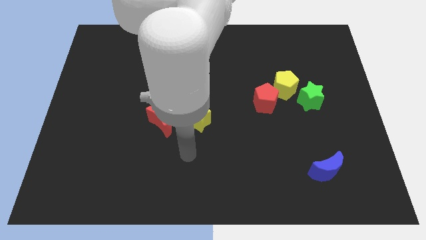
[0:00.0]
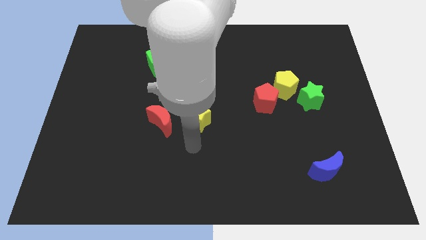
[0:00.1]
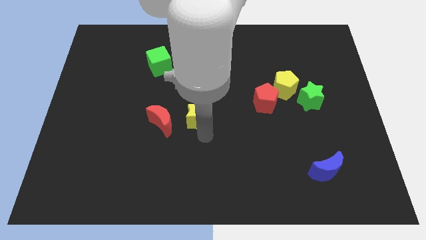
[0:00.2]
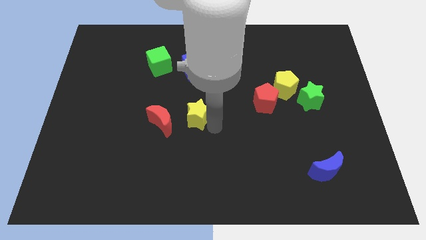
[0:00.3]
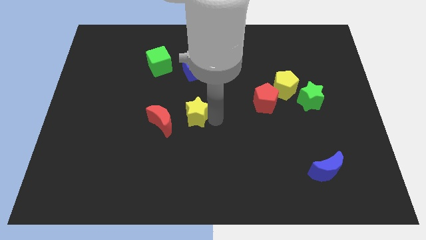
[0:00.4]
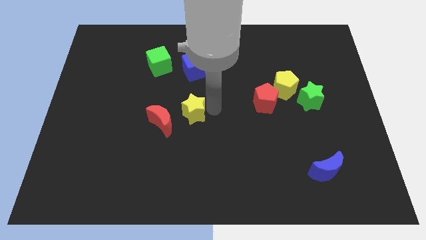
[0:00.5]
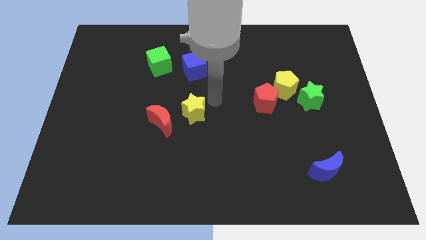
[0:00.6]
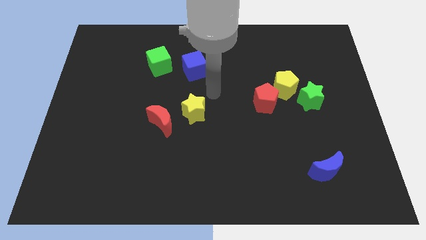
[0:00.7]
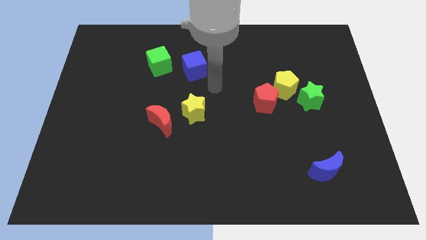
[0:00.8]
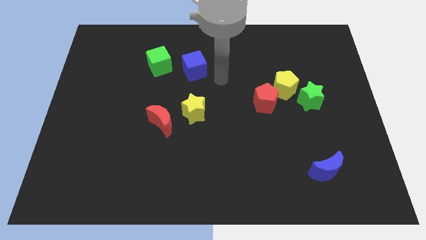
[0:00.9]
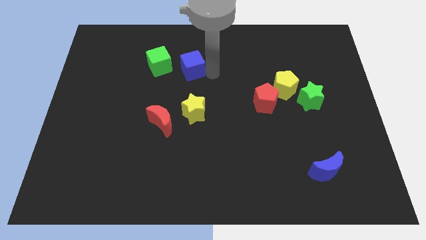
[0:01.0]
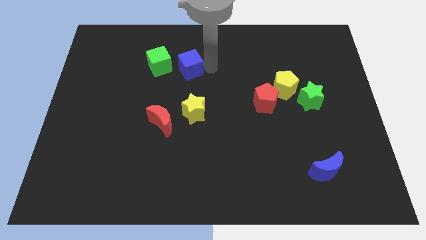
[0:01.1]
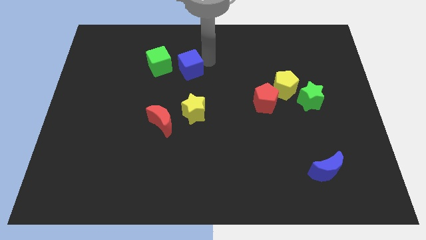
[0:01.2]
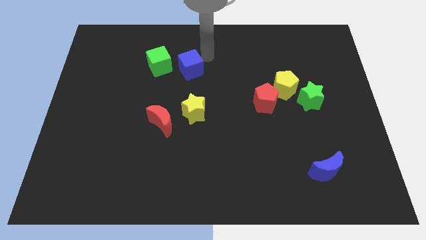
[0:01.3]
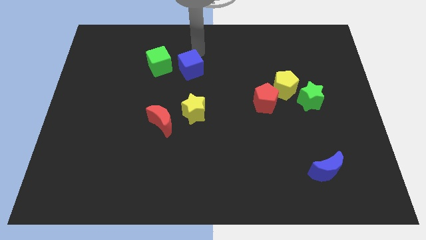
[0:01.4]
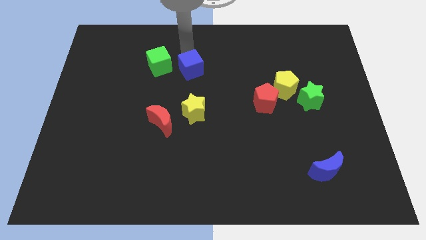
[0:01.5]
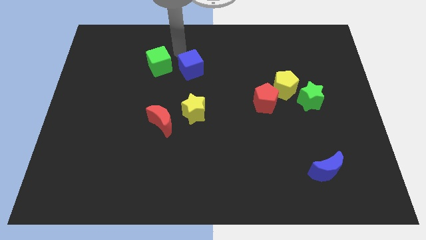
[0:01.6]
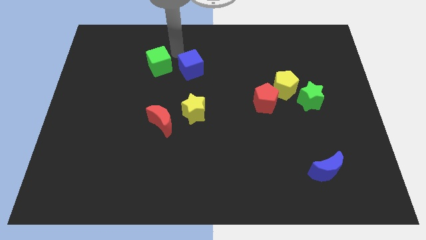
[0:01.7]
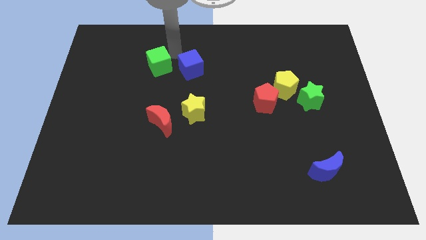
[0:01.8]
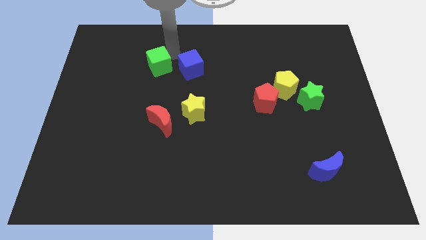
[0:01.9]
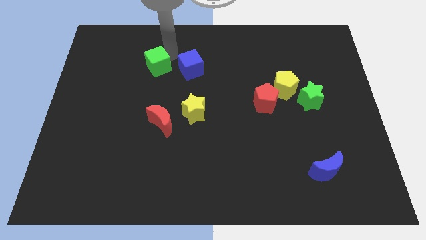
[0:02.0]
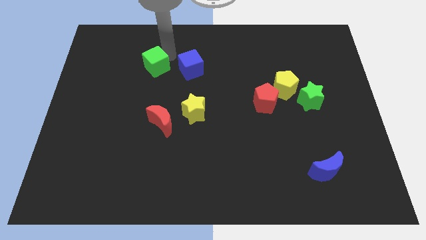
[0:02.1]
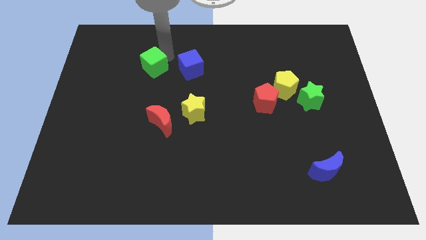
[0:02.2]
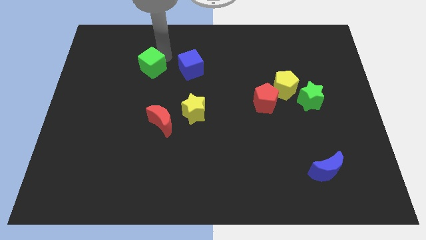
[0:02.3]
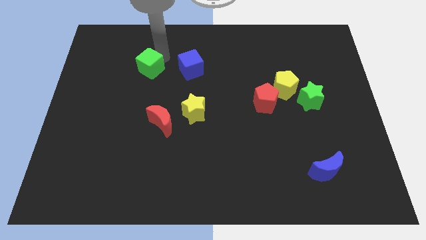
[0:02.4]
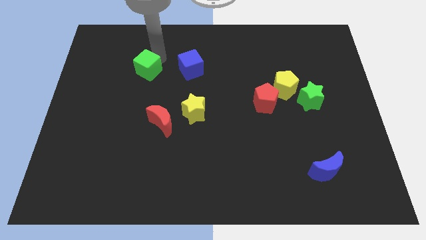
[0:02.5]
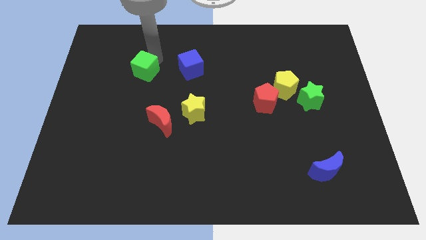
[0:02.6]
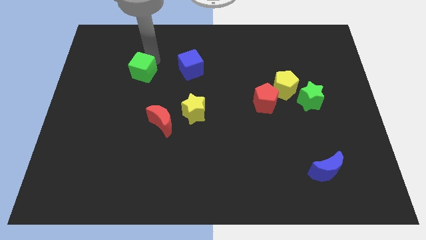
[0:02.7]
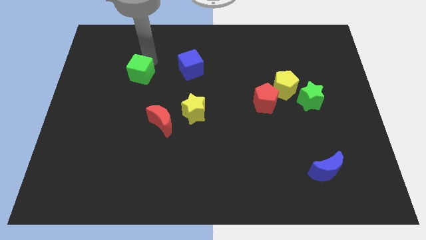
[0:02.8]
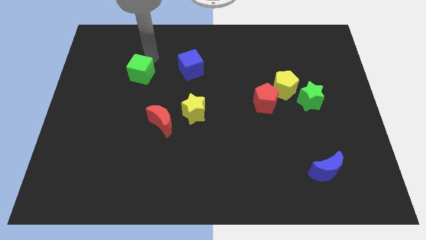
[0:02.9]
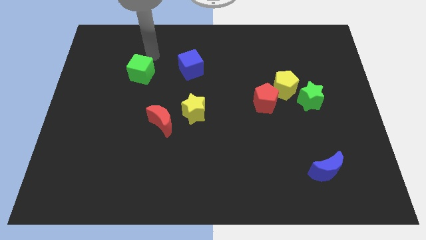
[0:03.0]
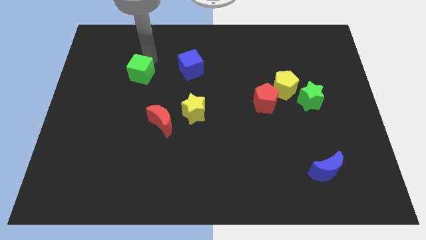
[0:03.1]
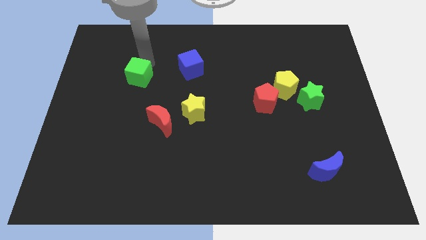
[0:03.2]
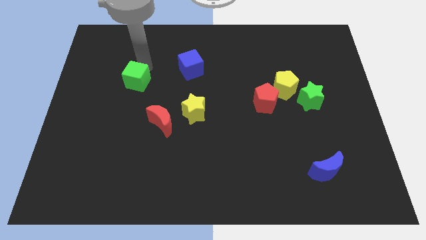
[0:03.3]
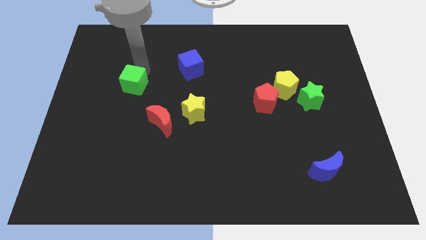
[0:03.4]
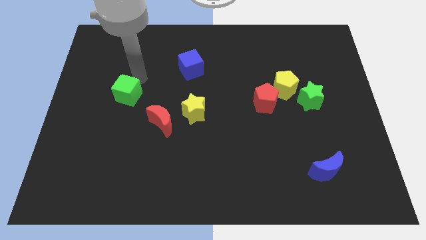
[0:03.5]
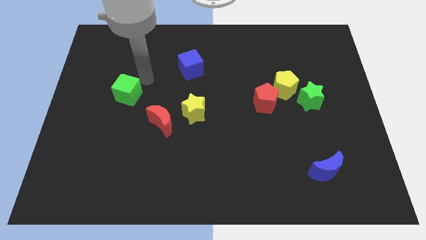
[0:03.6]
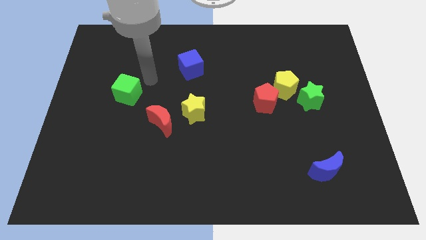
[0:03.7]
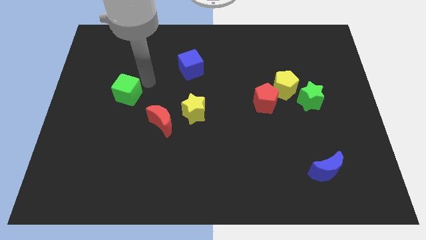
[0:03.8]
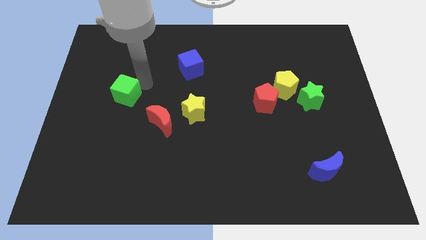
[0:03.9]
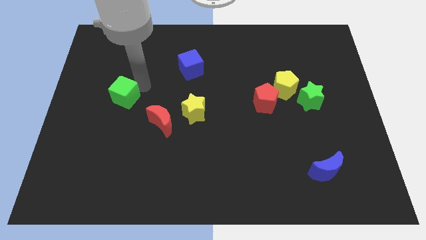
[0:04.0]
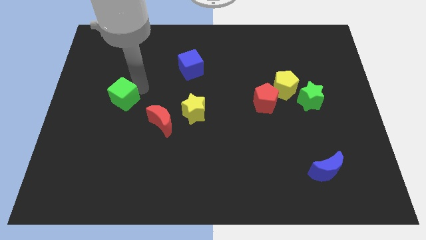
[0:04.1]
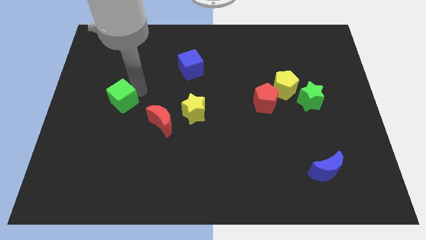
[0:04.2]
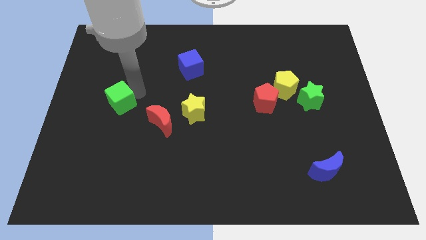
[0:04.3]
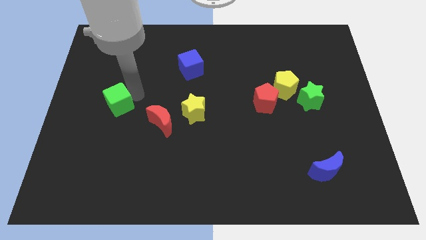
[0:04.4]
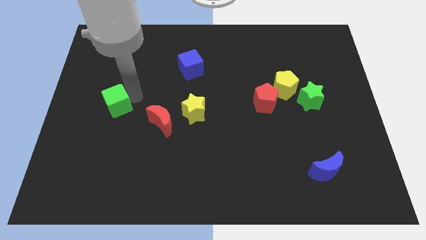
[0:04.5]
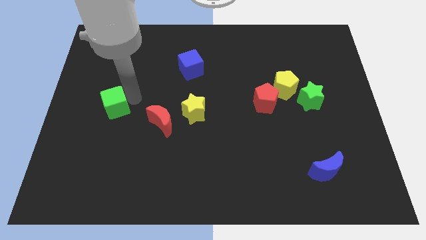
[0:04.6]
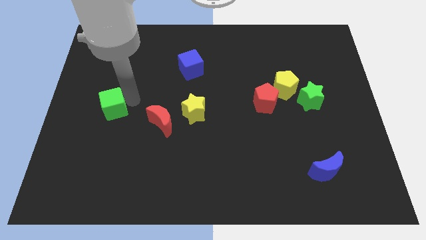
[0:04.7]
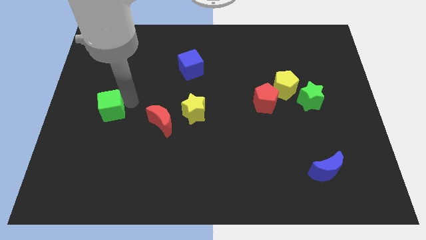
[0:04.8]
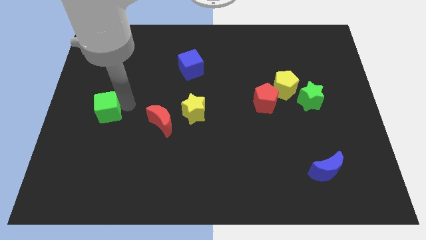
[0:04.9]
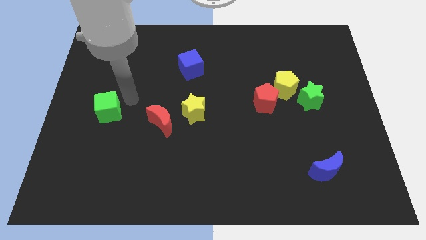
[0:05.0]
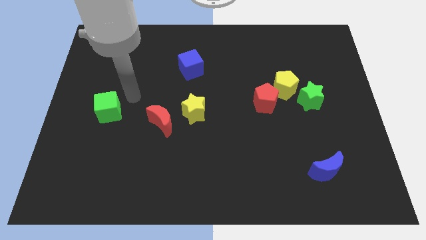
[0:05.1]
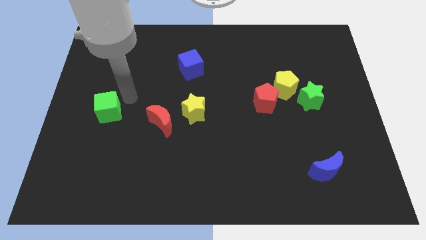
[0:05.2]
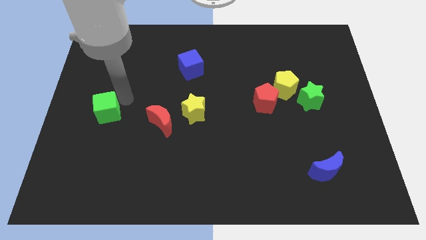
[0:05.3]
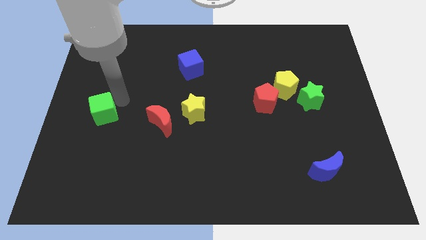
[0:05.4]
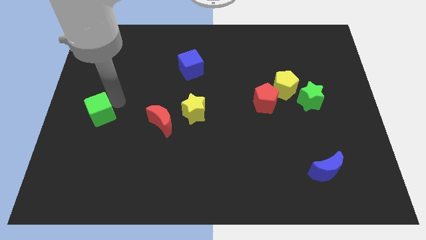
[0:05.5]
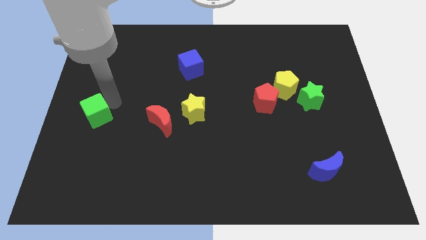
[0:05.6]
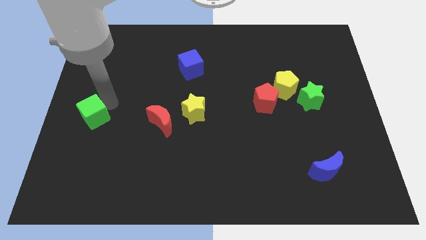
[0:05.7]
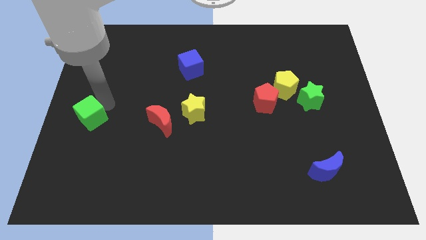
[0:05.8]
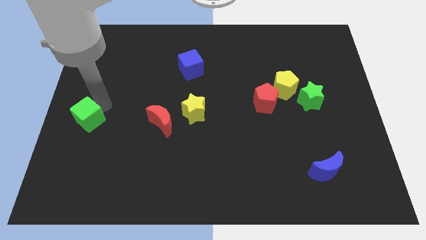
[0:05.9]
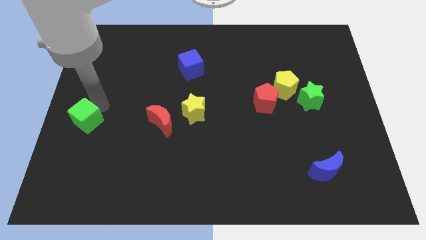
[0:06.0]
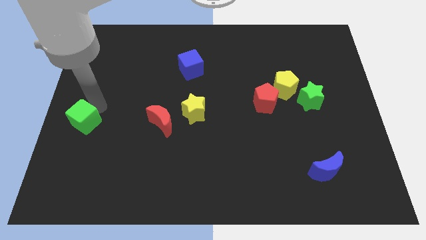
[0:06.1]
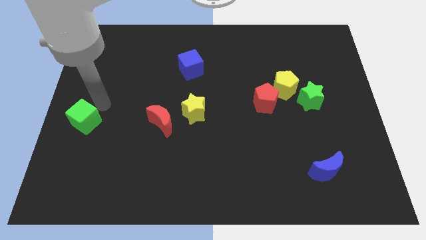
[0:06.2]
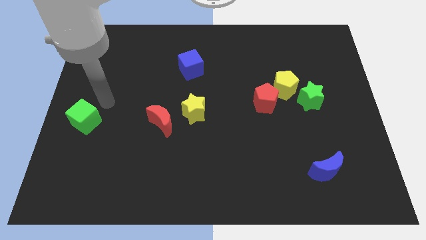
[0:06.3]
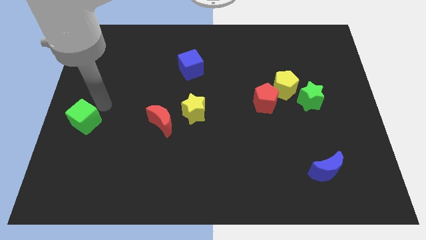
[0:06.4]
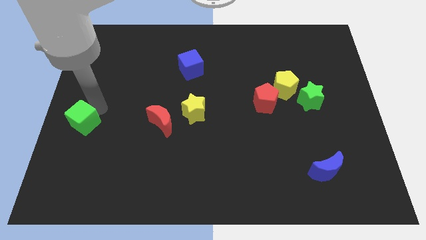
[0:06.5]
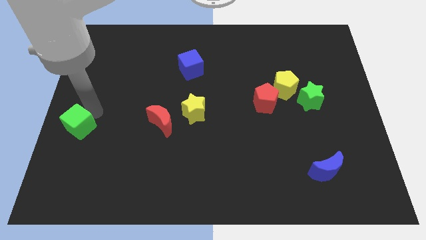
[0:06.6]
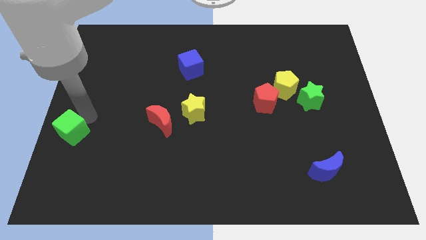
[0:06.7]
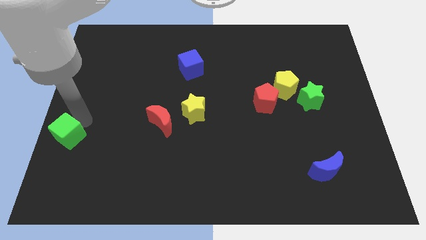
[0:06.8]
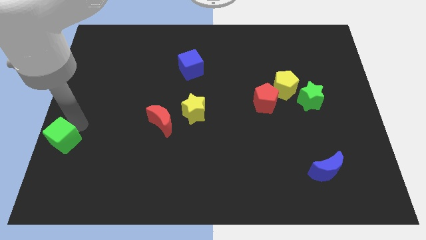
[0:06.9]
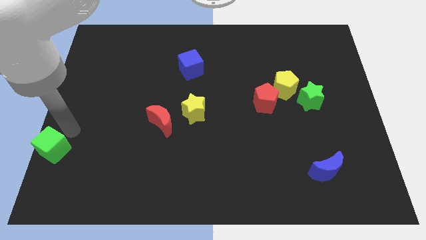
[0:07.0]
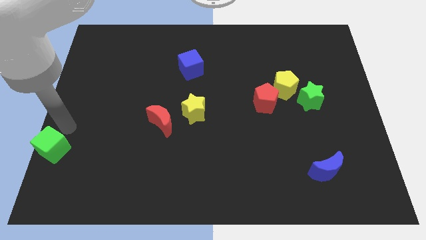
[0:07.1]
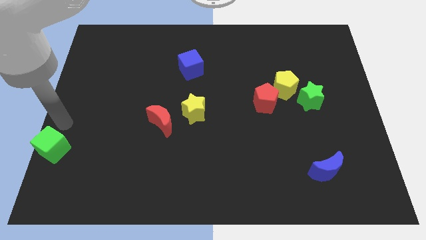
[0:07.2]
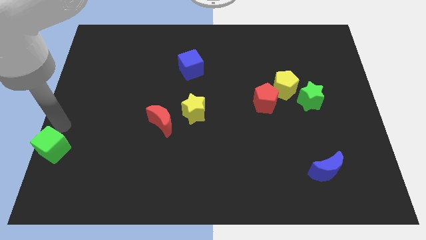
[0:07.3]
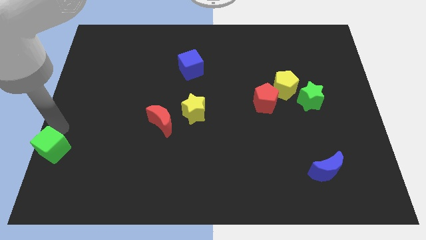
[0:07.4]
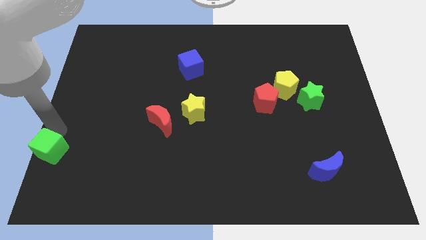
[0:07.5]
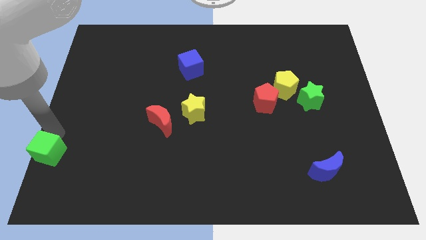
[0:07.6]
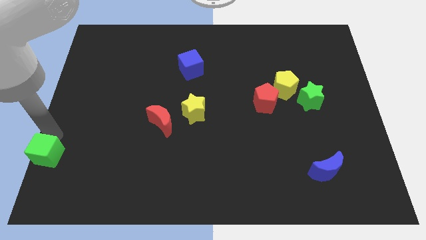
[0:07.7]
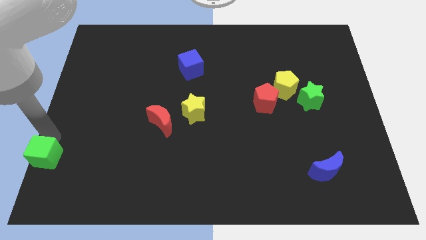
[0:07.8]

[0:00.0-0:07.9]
move the green cube to the bottom left corner
